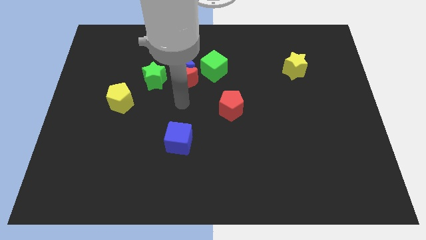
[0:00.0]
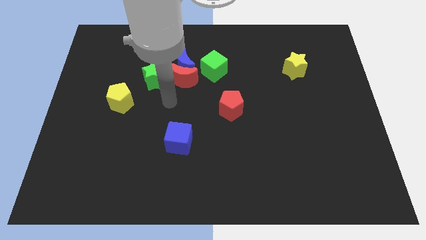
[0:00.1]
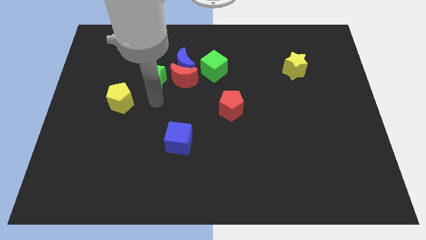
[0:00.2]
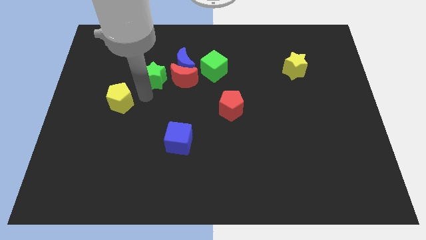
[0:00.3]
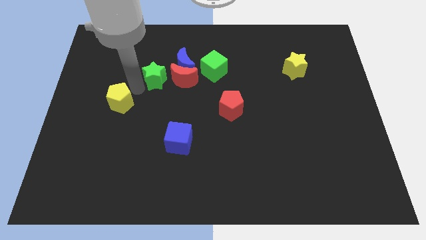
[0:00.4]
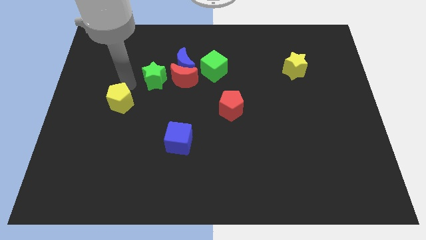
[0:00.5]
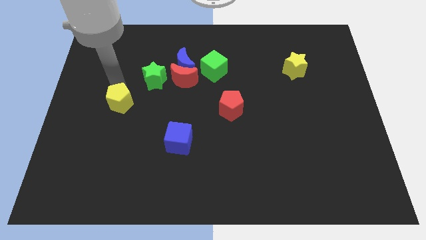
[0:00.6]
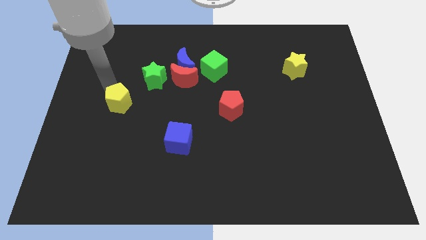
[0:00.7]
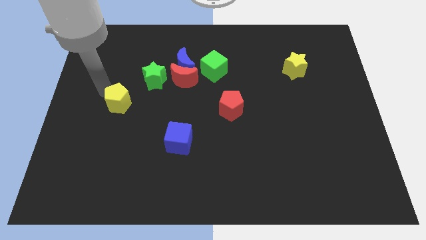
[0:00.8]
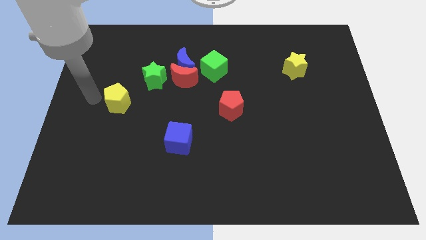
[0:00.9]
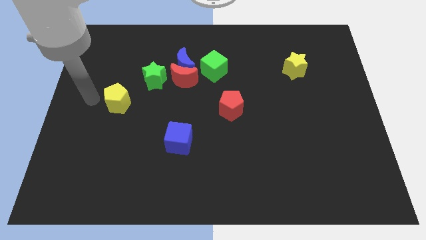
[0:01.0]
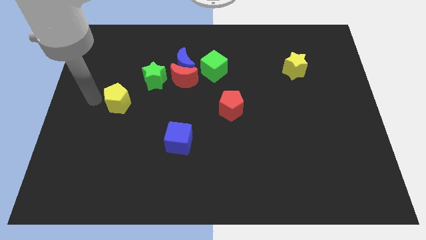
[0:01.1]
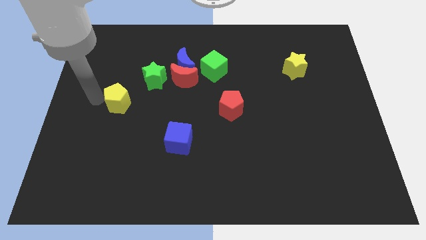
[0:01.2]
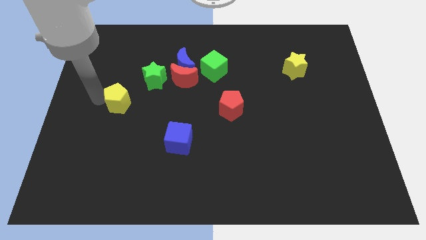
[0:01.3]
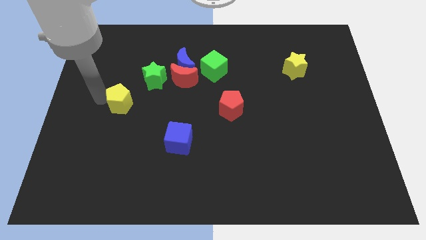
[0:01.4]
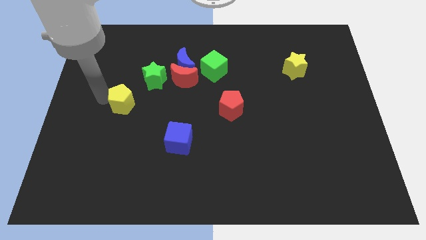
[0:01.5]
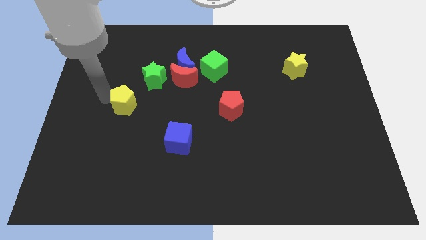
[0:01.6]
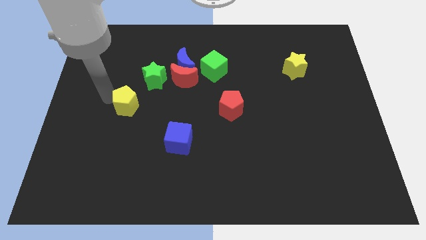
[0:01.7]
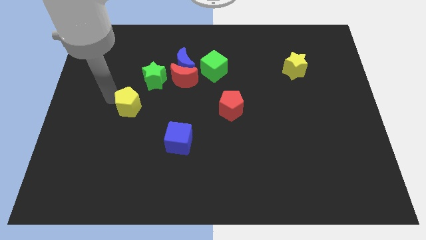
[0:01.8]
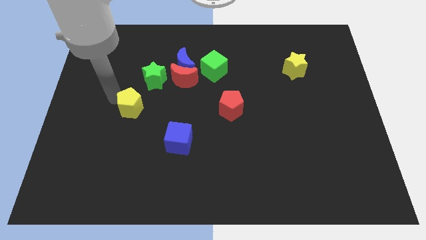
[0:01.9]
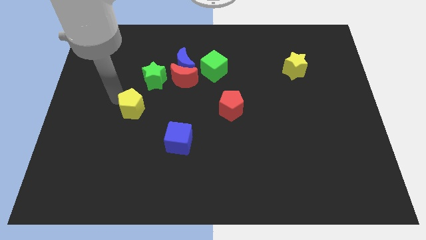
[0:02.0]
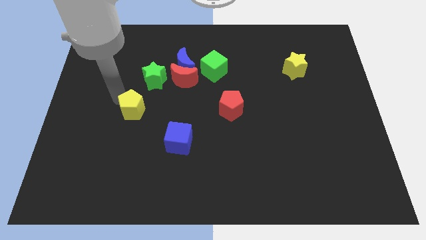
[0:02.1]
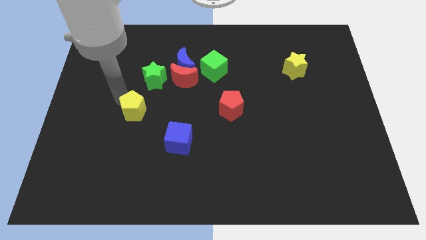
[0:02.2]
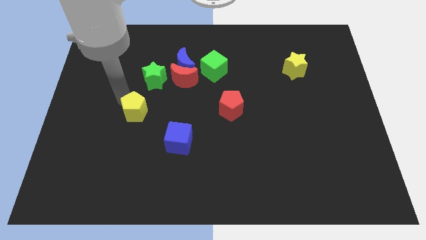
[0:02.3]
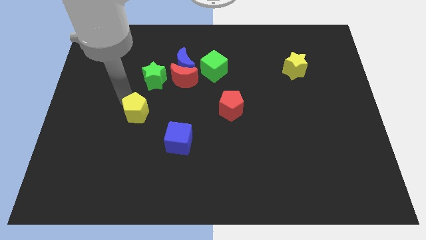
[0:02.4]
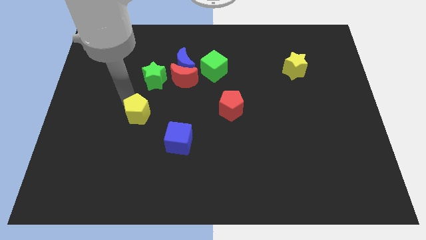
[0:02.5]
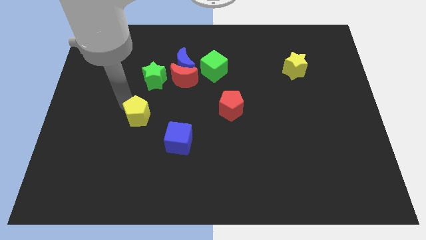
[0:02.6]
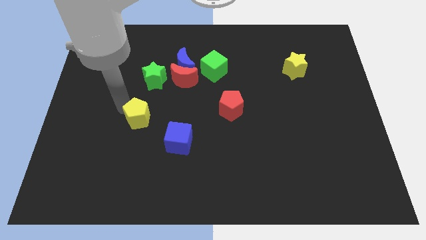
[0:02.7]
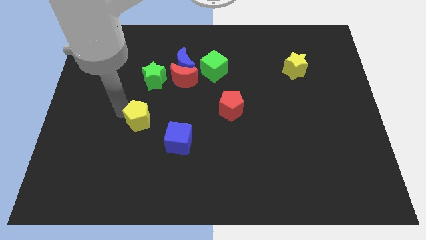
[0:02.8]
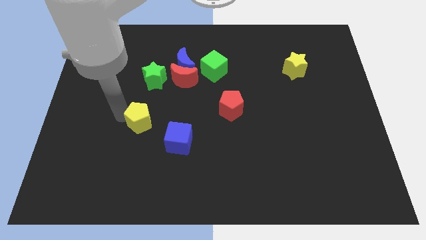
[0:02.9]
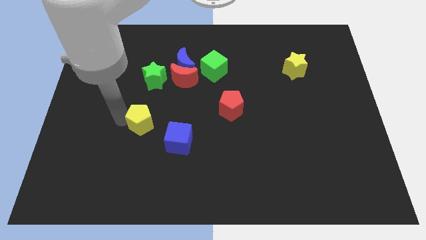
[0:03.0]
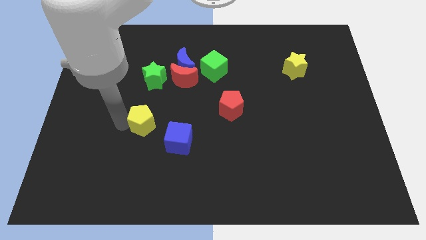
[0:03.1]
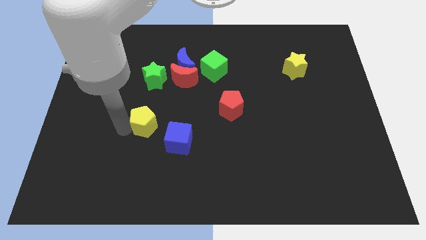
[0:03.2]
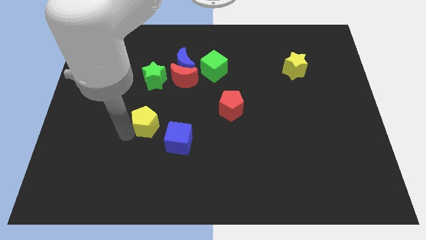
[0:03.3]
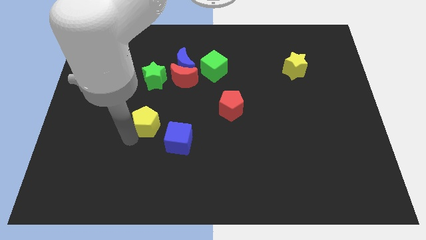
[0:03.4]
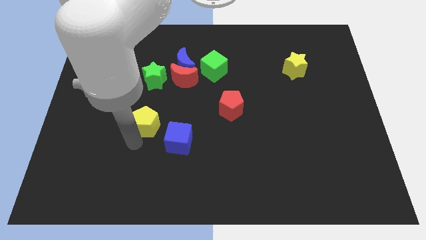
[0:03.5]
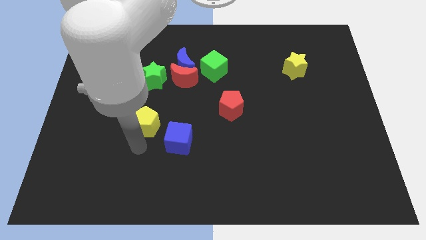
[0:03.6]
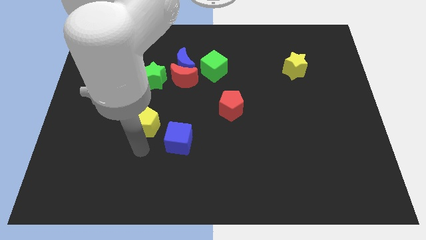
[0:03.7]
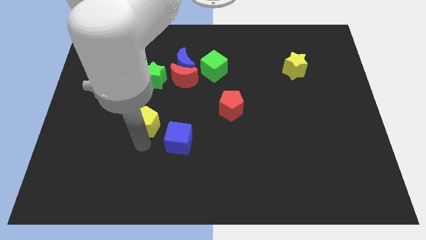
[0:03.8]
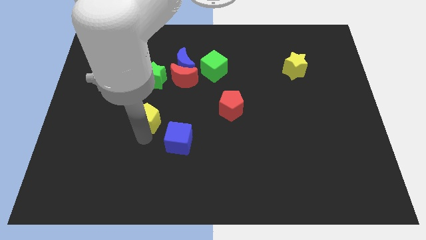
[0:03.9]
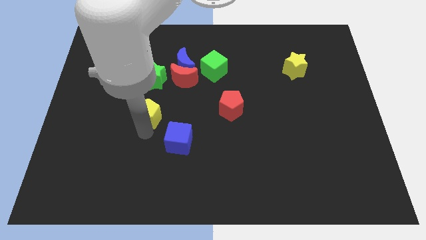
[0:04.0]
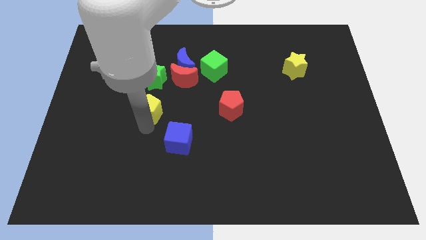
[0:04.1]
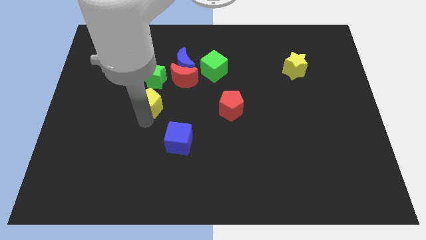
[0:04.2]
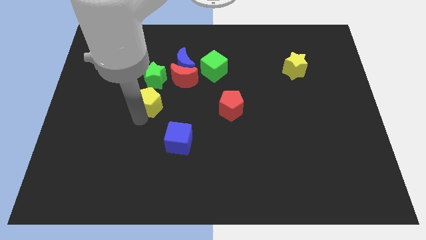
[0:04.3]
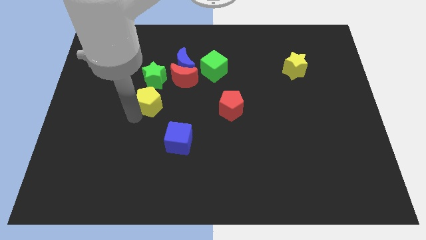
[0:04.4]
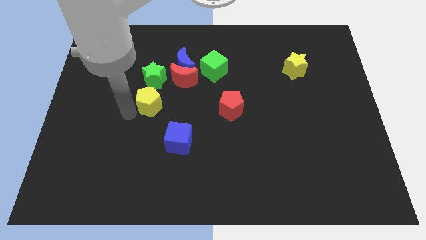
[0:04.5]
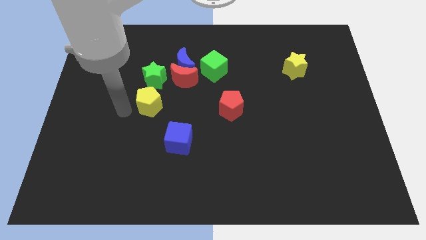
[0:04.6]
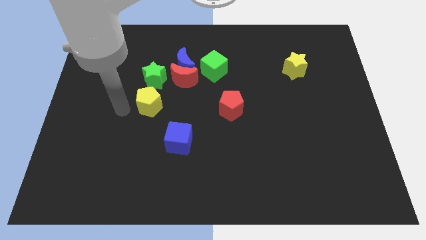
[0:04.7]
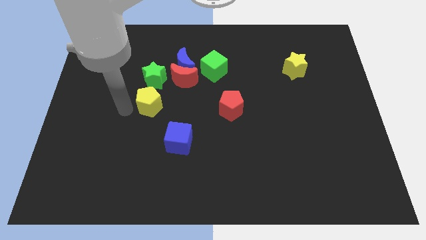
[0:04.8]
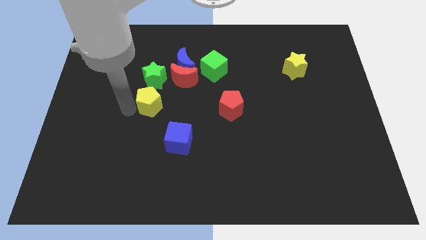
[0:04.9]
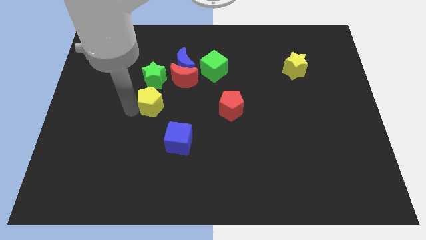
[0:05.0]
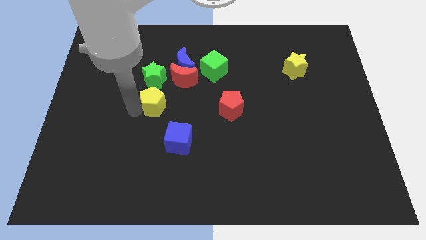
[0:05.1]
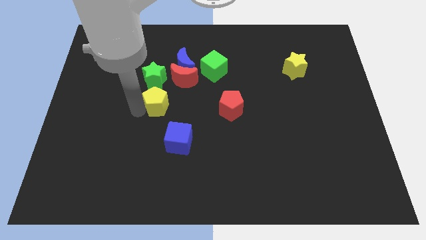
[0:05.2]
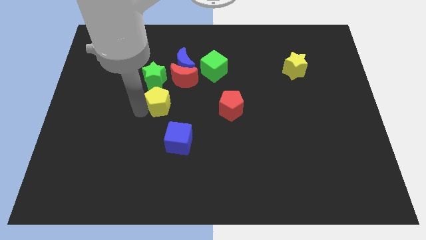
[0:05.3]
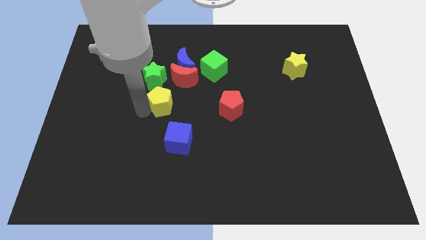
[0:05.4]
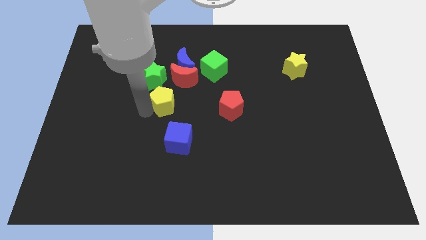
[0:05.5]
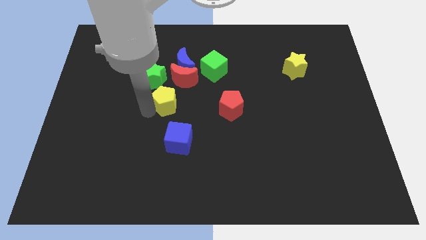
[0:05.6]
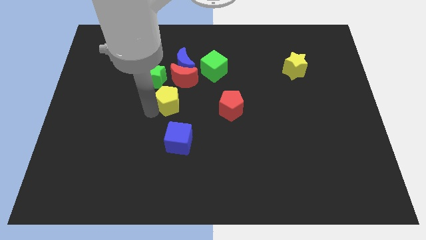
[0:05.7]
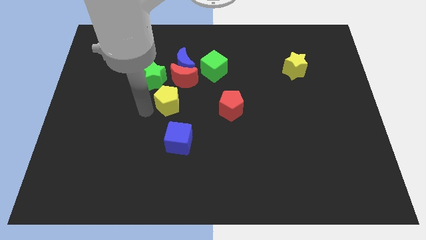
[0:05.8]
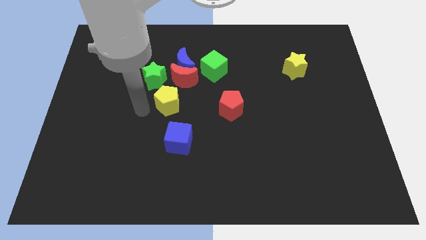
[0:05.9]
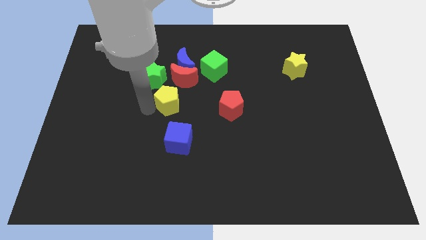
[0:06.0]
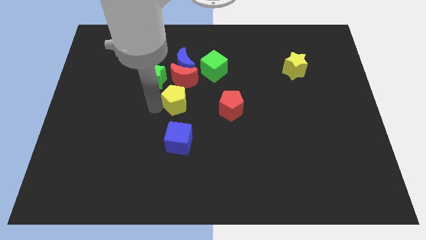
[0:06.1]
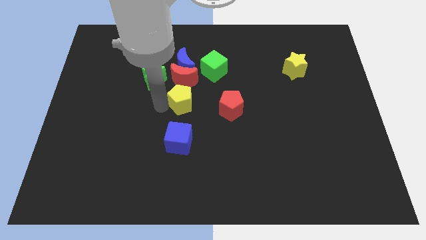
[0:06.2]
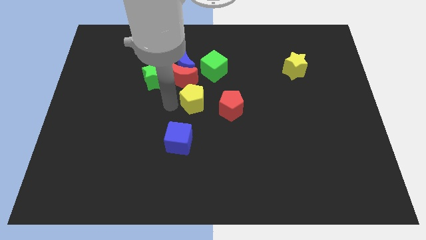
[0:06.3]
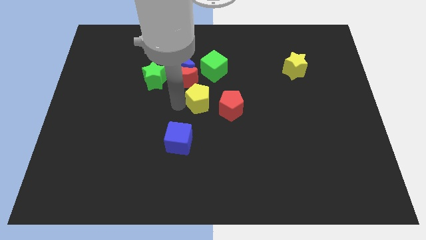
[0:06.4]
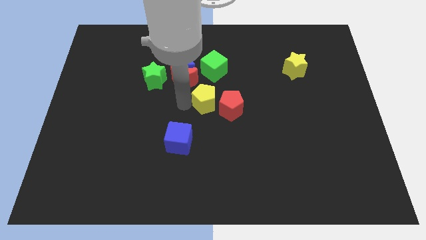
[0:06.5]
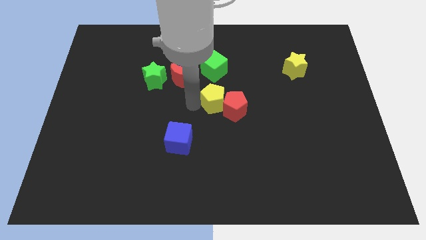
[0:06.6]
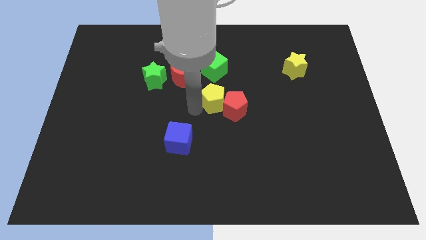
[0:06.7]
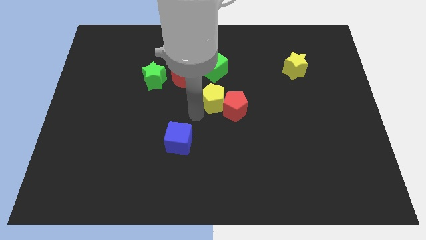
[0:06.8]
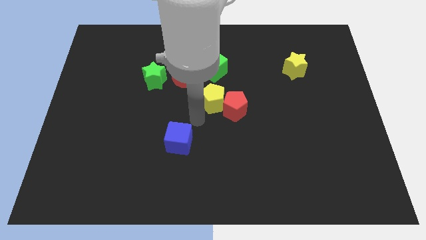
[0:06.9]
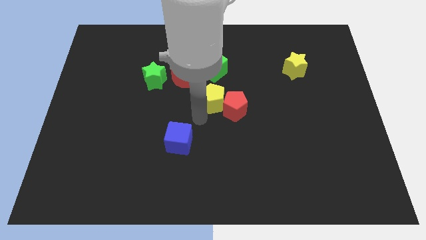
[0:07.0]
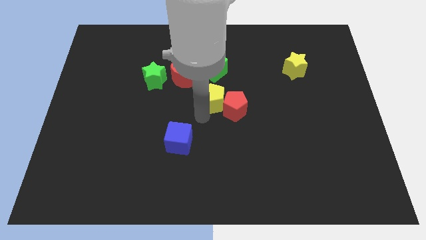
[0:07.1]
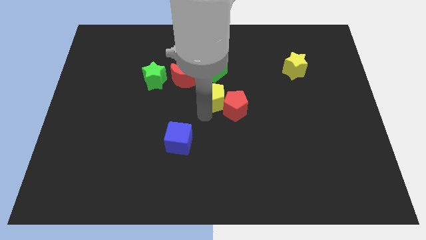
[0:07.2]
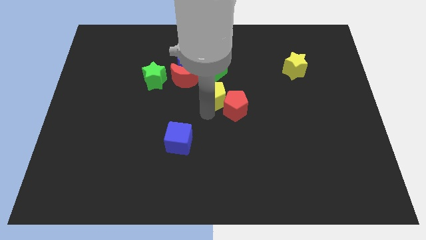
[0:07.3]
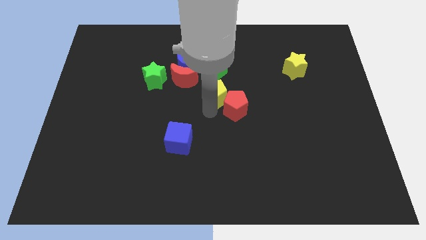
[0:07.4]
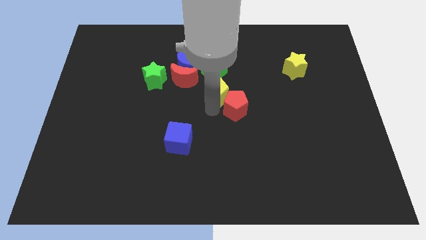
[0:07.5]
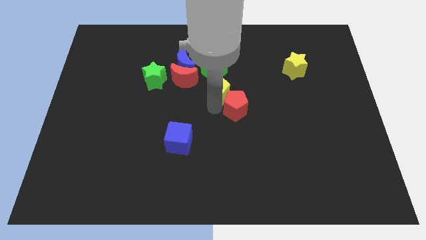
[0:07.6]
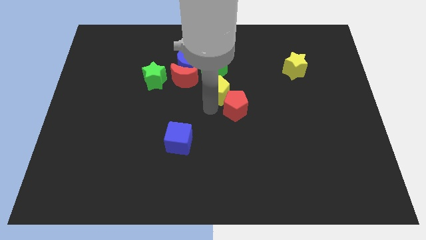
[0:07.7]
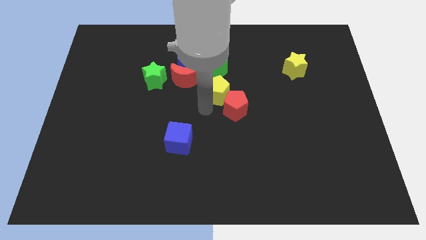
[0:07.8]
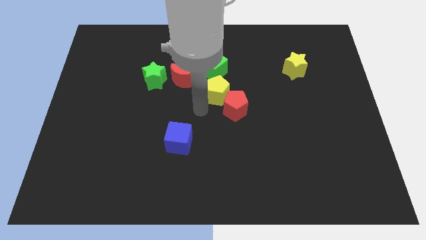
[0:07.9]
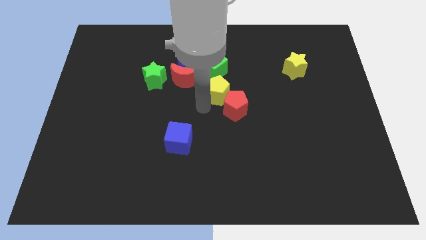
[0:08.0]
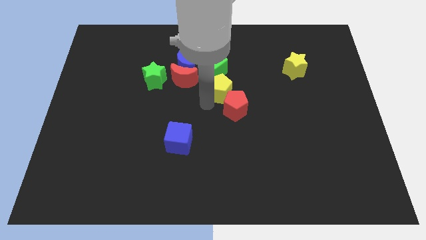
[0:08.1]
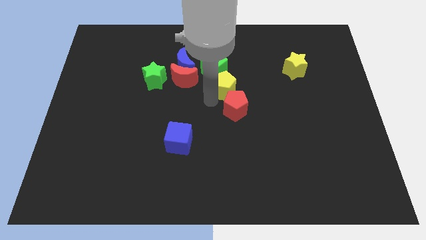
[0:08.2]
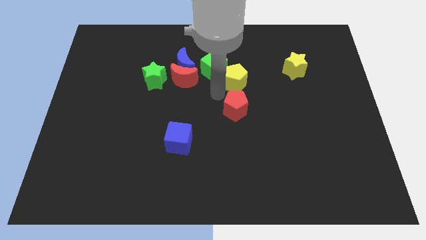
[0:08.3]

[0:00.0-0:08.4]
move the yellow pentagon right of the green cube
